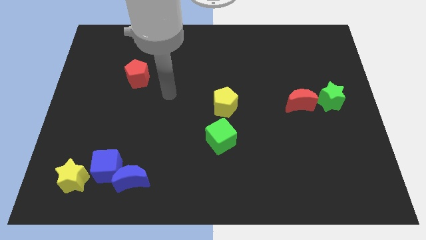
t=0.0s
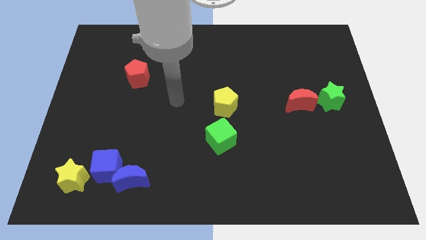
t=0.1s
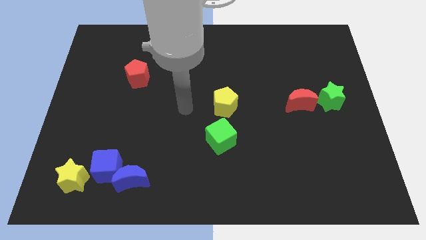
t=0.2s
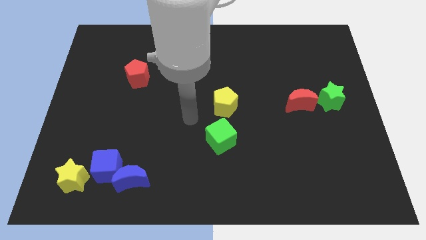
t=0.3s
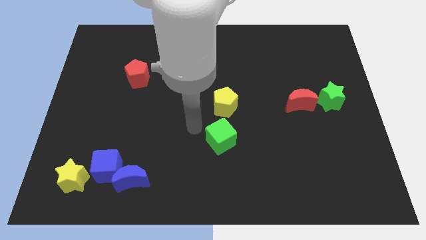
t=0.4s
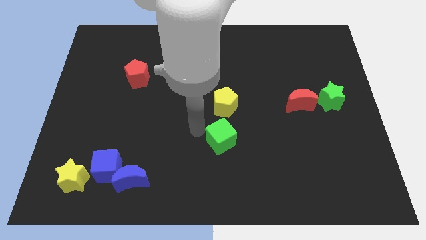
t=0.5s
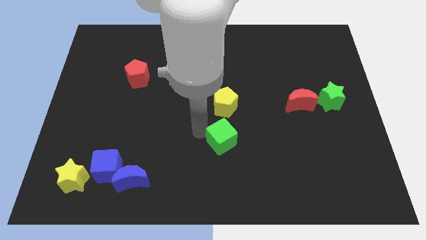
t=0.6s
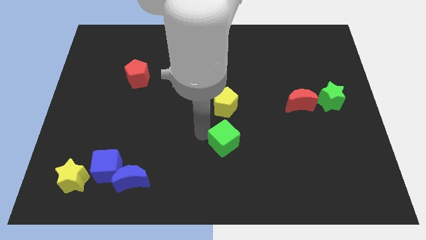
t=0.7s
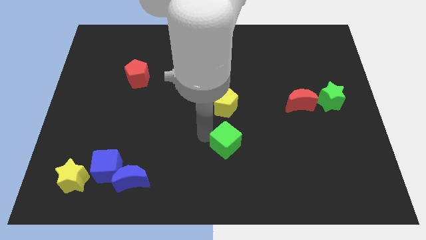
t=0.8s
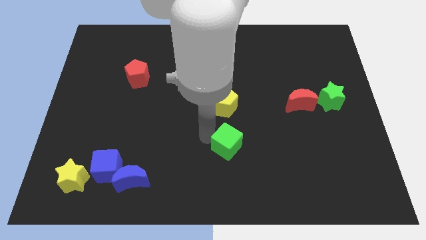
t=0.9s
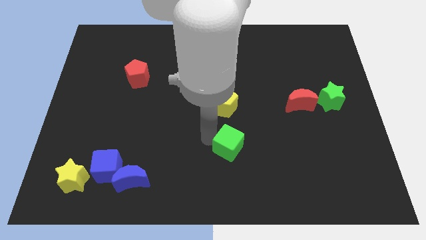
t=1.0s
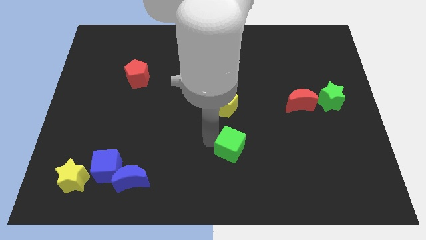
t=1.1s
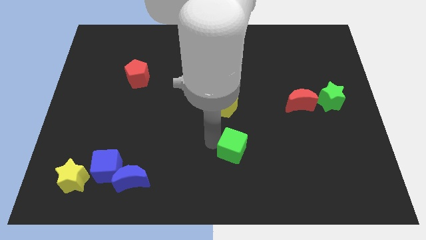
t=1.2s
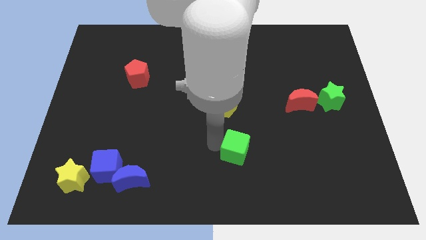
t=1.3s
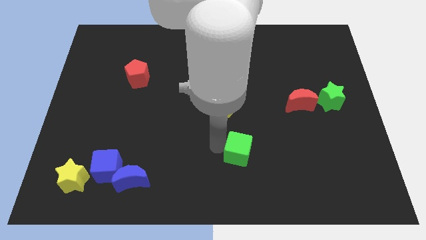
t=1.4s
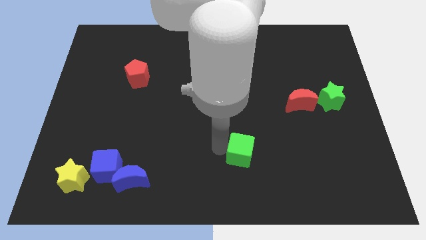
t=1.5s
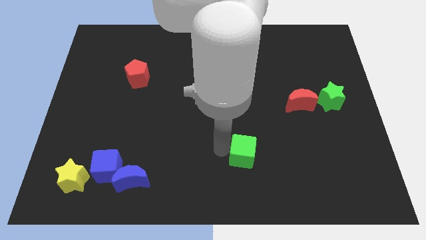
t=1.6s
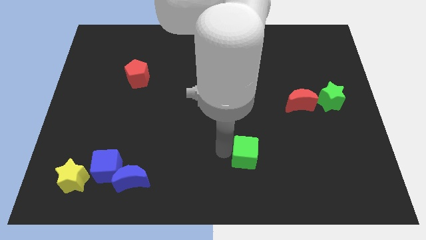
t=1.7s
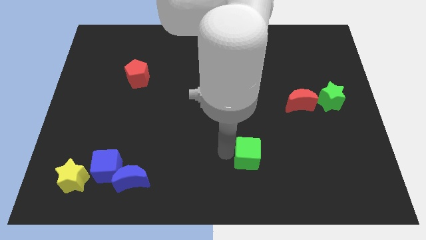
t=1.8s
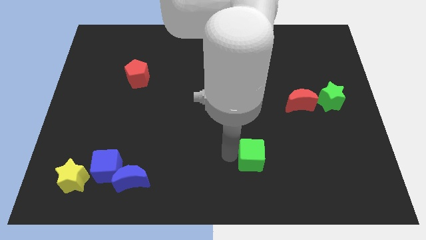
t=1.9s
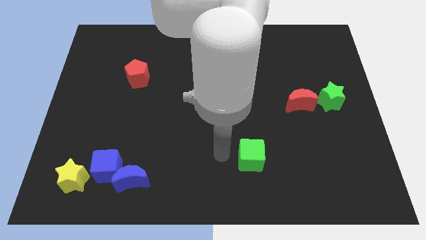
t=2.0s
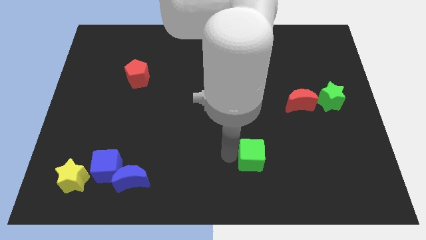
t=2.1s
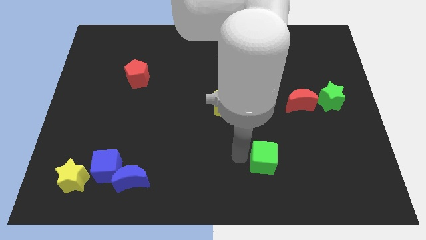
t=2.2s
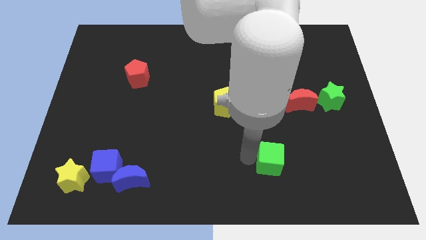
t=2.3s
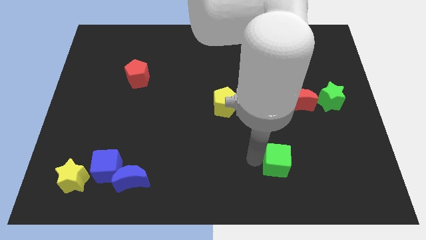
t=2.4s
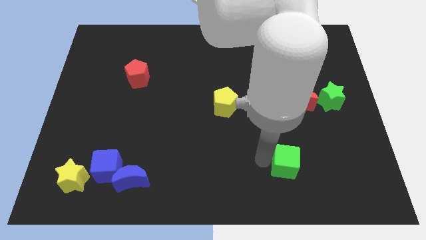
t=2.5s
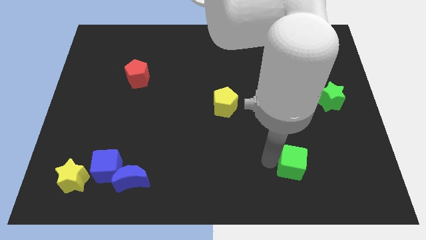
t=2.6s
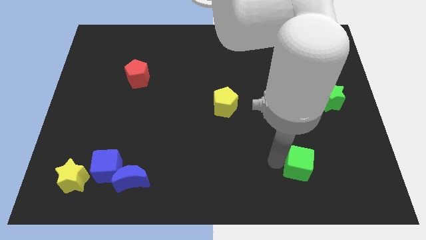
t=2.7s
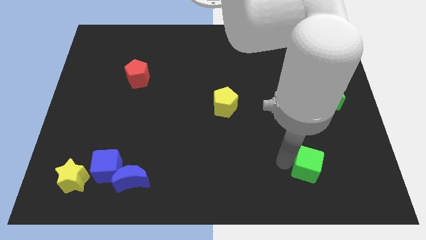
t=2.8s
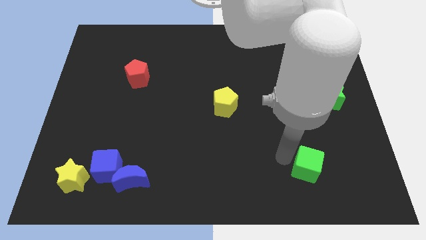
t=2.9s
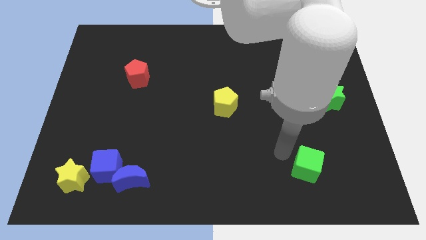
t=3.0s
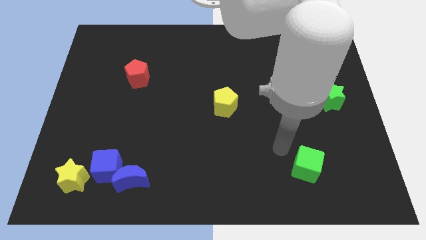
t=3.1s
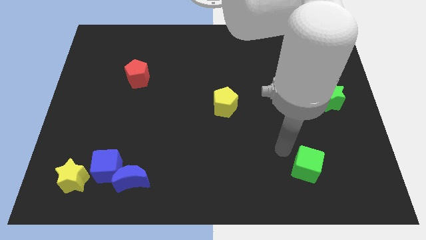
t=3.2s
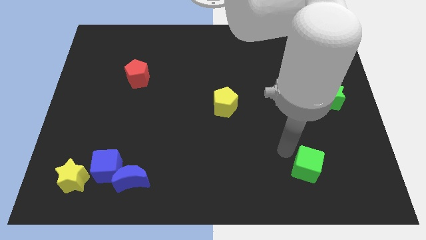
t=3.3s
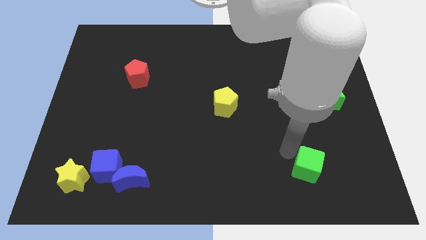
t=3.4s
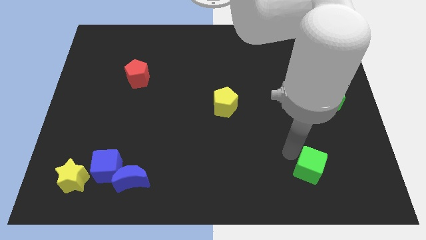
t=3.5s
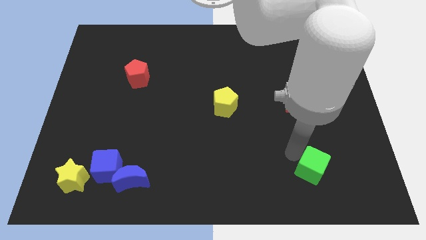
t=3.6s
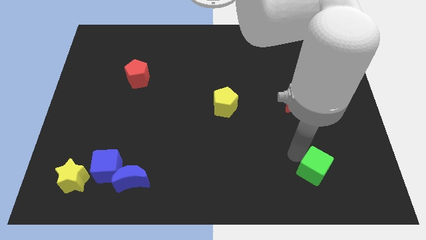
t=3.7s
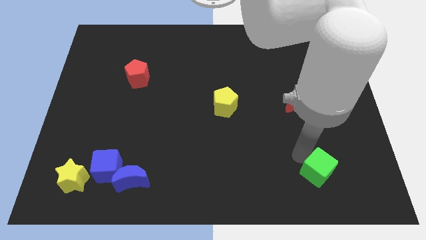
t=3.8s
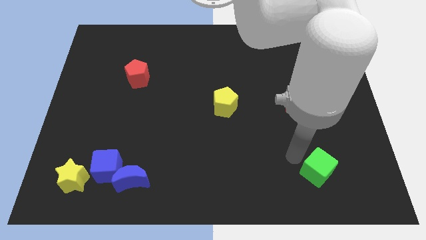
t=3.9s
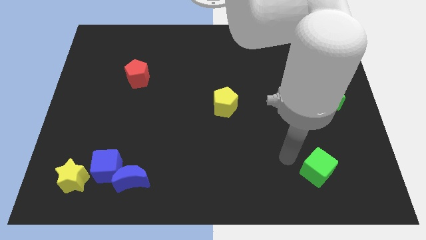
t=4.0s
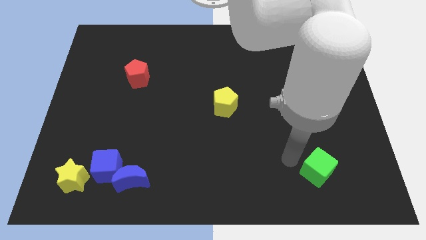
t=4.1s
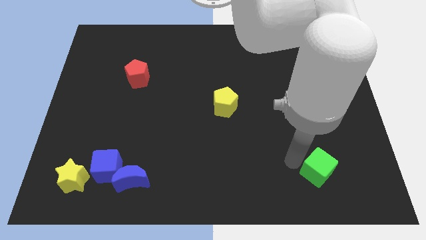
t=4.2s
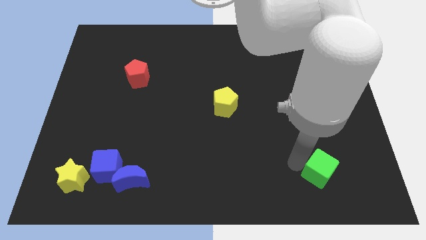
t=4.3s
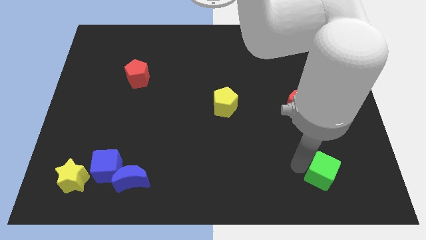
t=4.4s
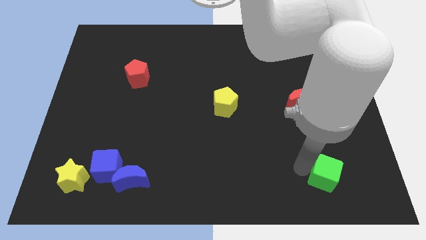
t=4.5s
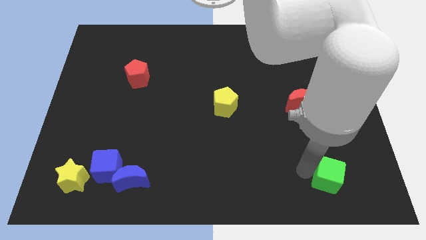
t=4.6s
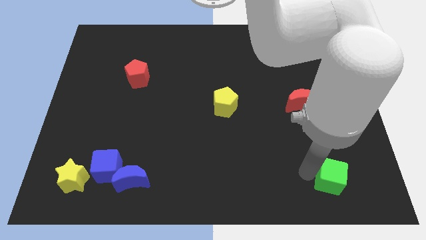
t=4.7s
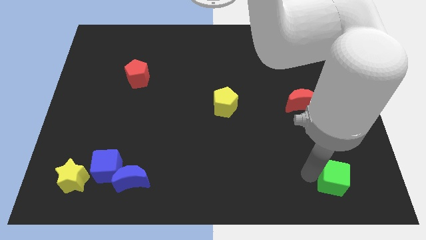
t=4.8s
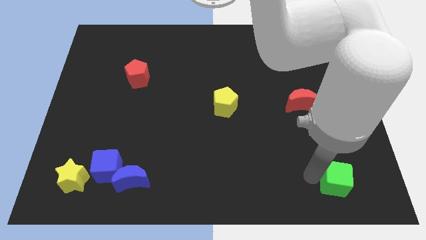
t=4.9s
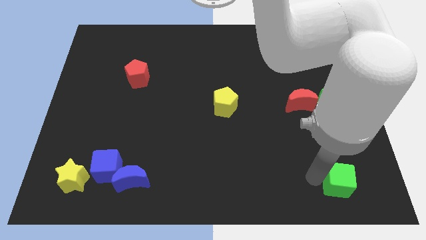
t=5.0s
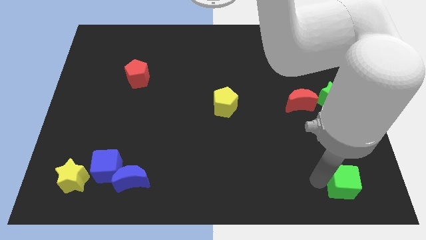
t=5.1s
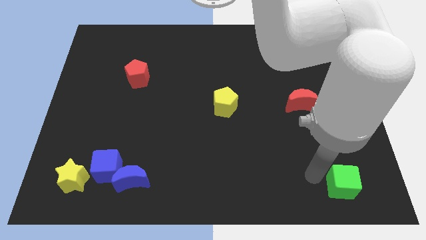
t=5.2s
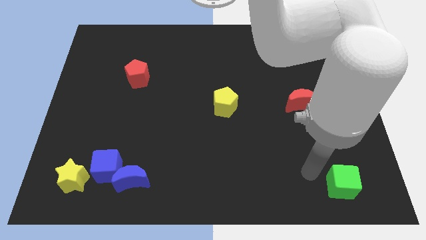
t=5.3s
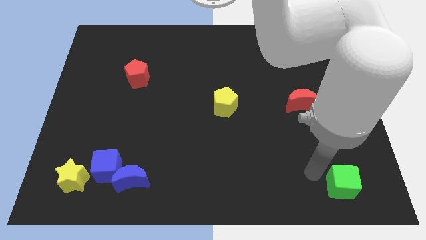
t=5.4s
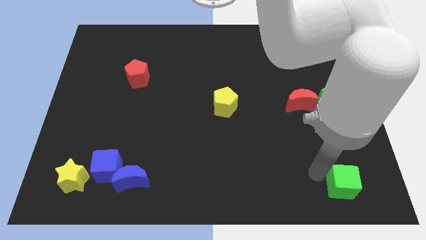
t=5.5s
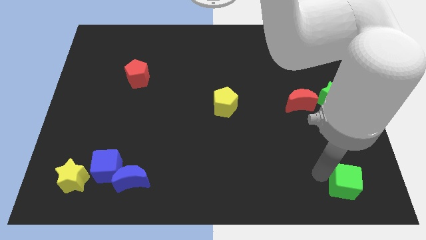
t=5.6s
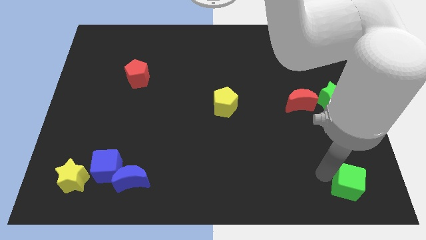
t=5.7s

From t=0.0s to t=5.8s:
push the green cube to the bottom right of the board

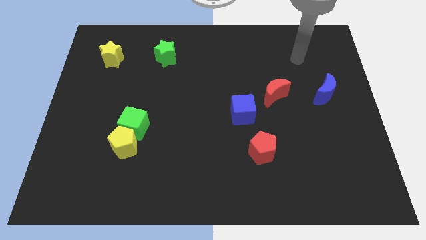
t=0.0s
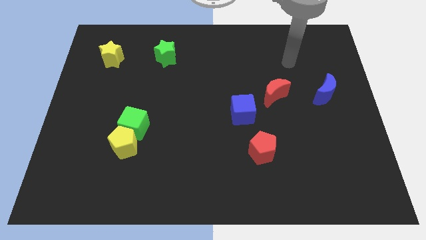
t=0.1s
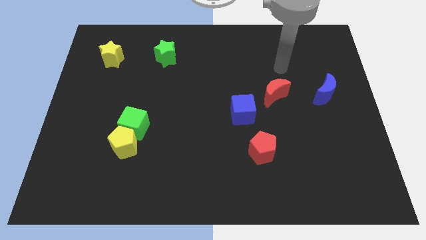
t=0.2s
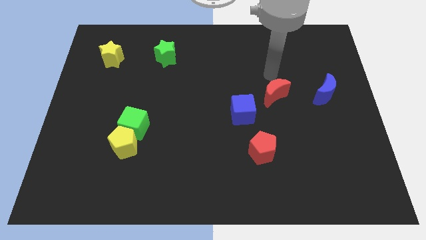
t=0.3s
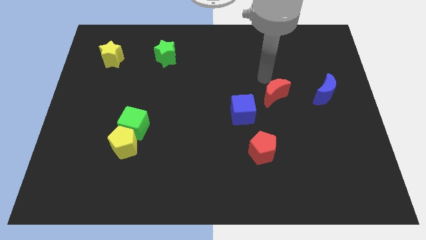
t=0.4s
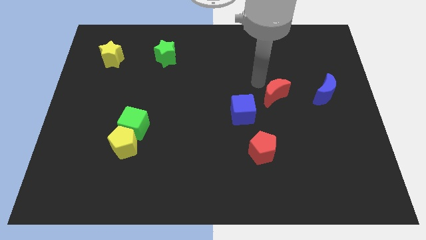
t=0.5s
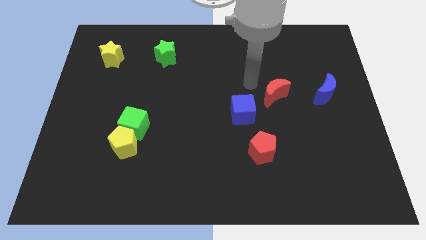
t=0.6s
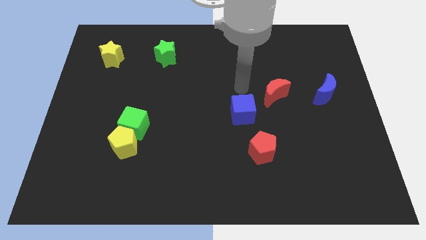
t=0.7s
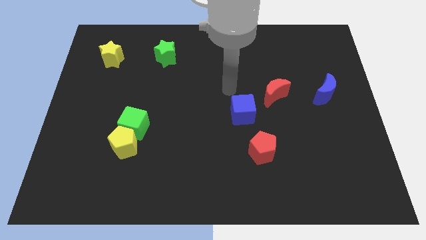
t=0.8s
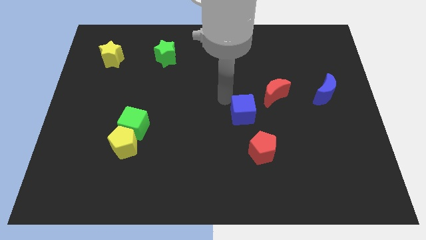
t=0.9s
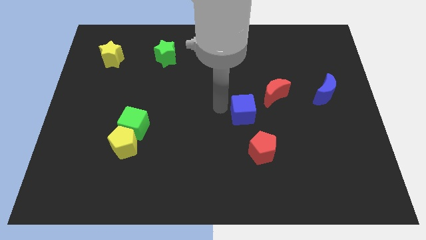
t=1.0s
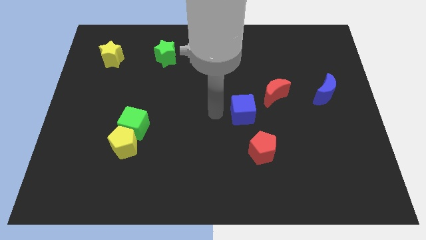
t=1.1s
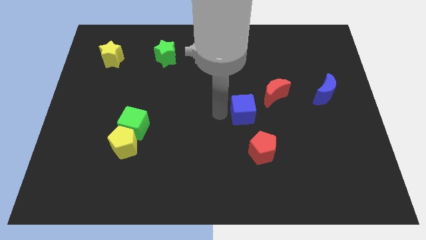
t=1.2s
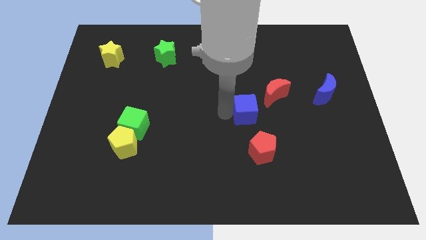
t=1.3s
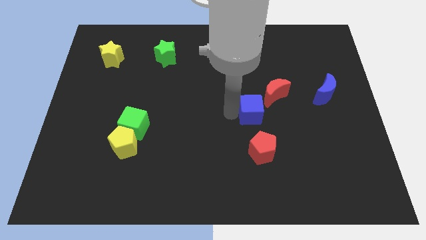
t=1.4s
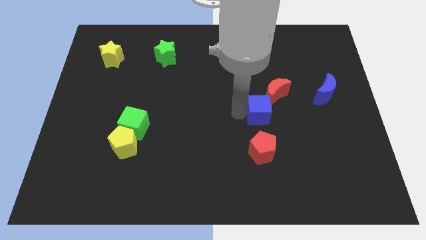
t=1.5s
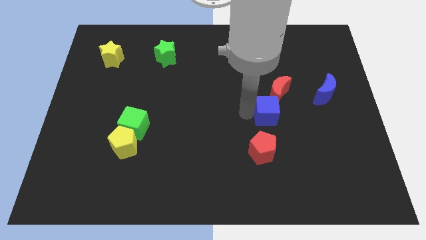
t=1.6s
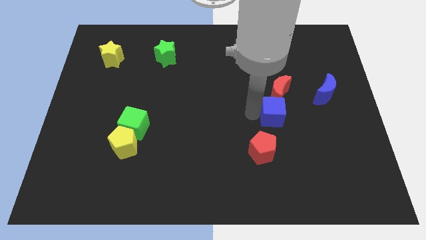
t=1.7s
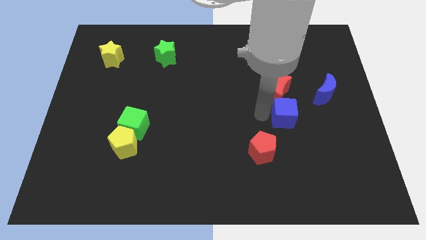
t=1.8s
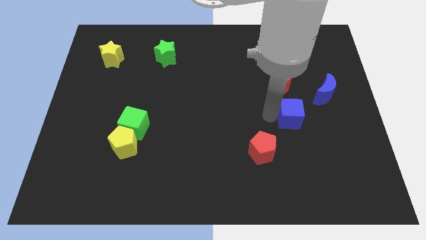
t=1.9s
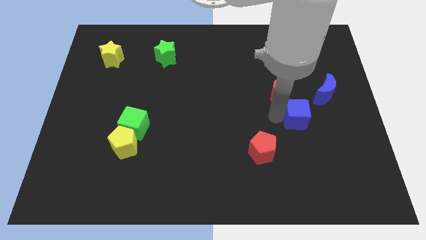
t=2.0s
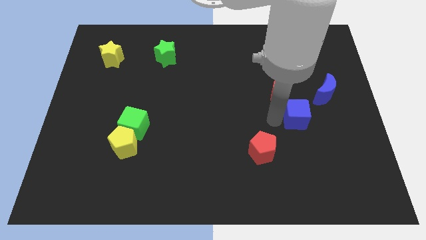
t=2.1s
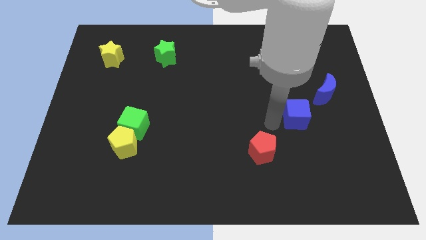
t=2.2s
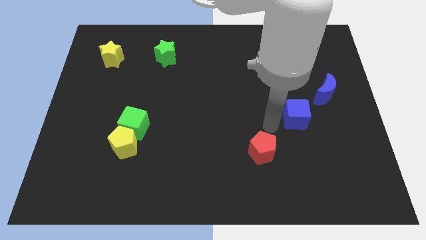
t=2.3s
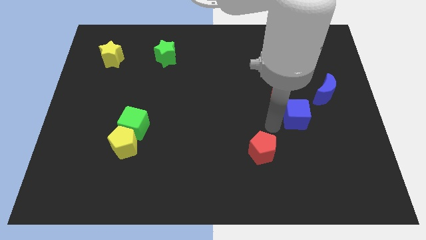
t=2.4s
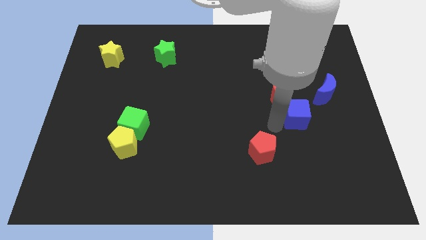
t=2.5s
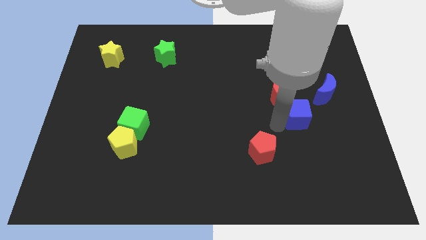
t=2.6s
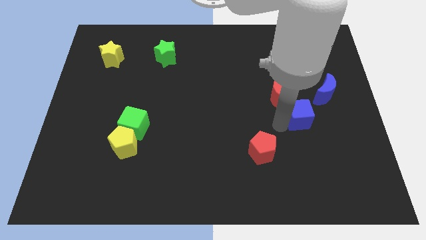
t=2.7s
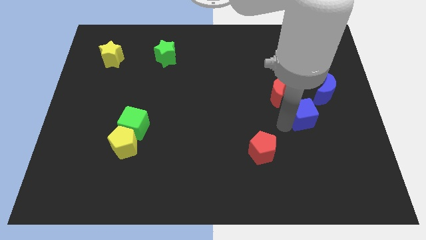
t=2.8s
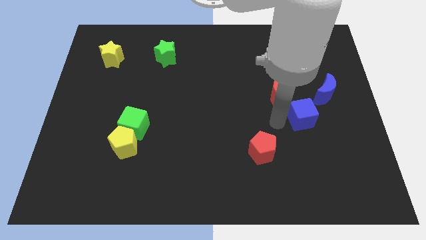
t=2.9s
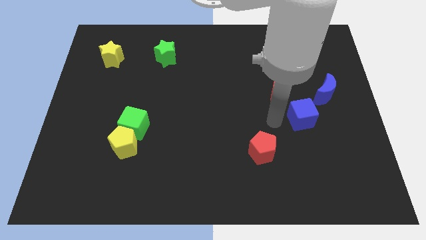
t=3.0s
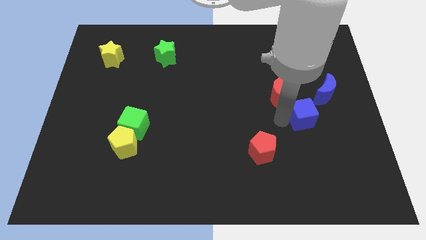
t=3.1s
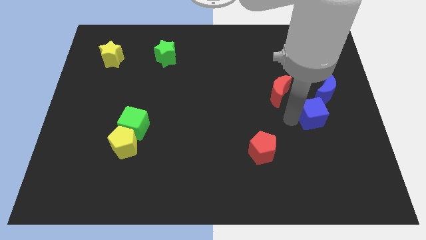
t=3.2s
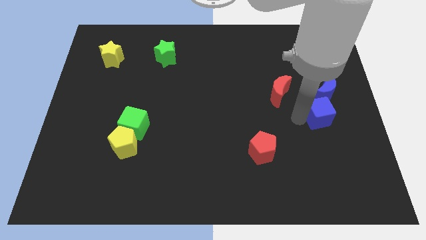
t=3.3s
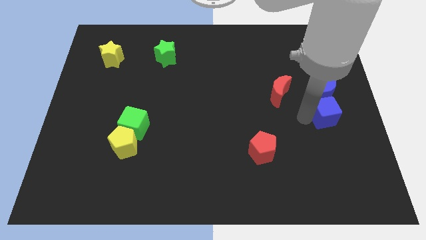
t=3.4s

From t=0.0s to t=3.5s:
put the blue cube to the center right
